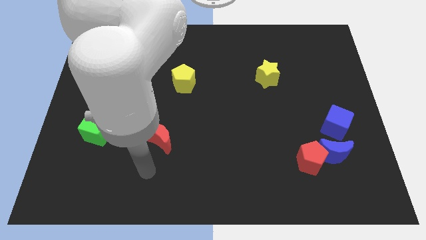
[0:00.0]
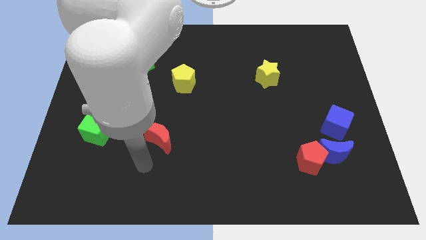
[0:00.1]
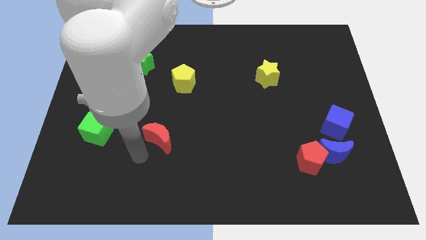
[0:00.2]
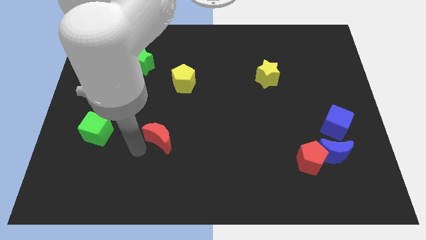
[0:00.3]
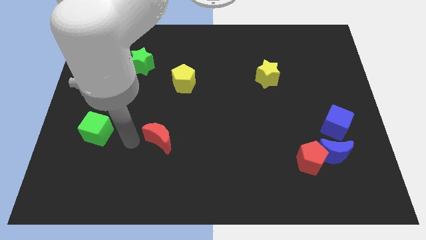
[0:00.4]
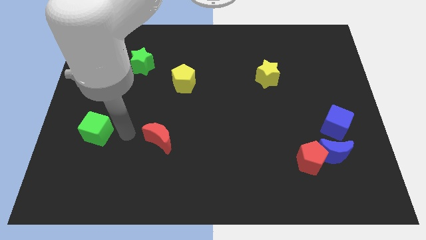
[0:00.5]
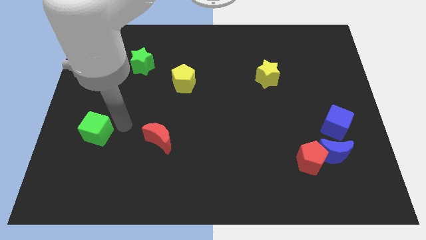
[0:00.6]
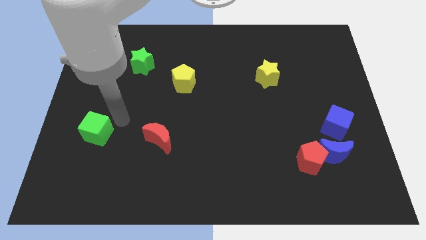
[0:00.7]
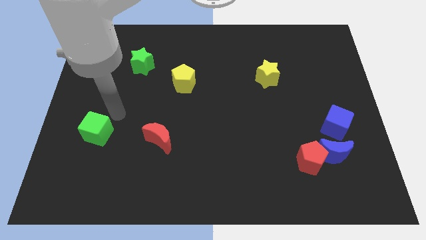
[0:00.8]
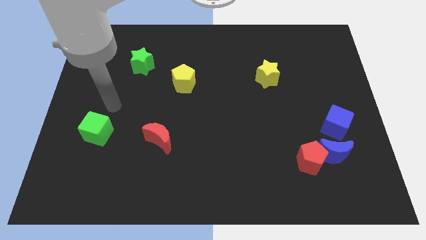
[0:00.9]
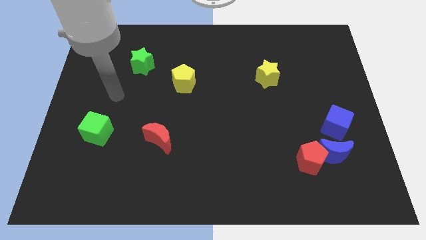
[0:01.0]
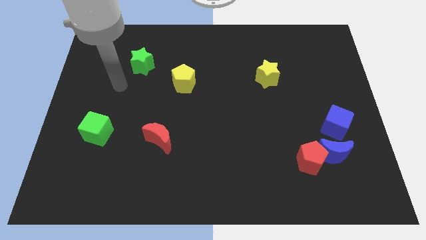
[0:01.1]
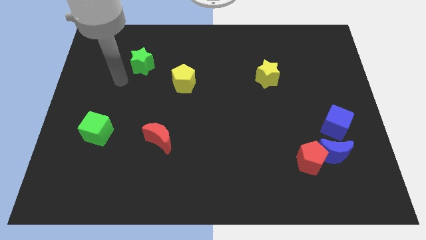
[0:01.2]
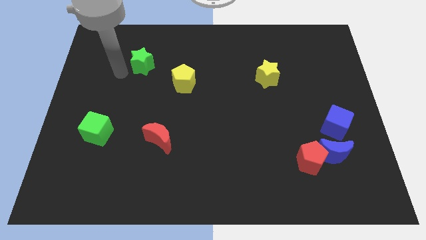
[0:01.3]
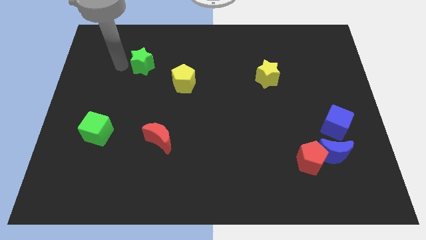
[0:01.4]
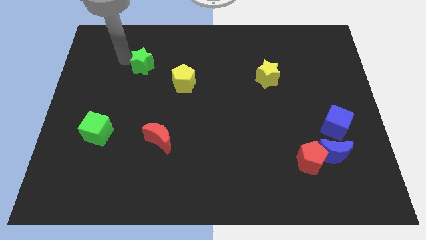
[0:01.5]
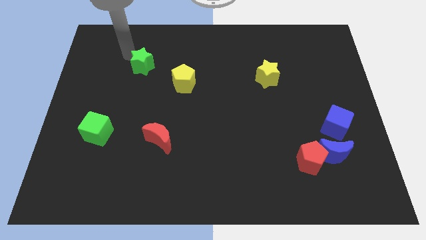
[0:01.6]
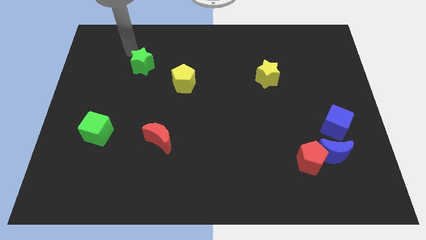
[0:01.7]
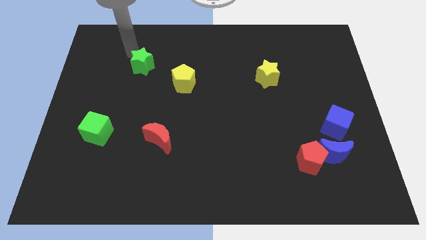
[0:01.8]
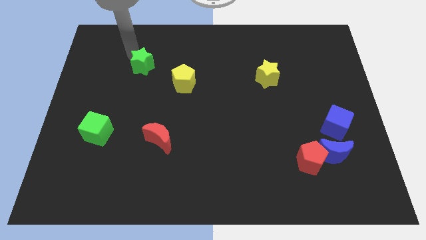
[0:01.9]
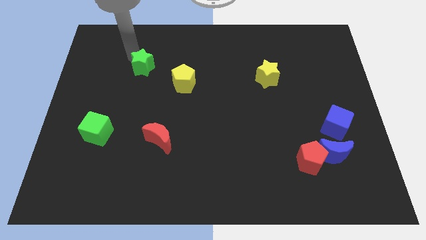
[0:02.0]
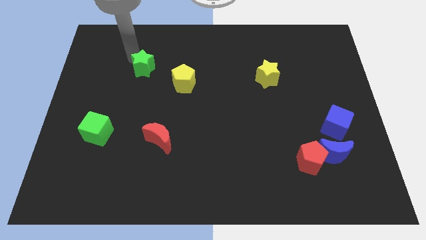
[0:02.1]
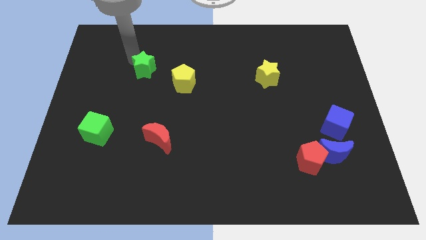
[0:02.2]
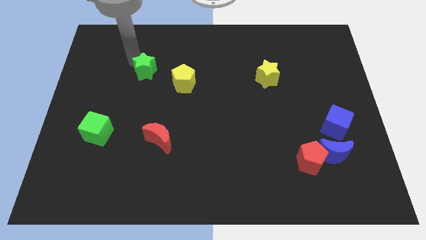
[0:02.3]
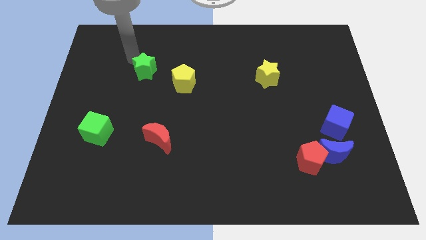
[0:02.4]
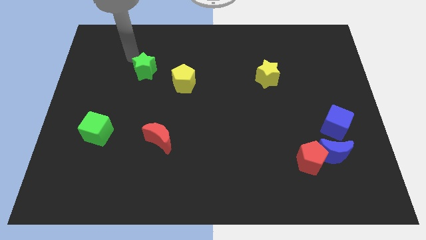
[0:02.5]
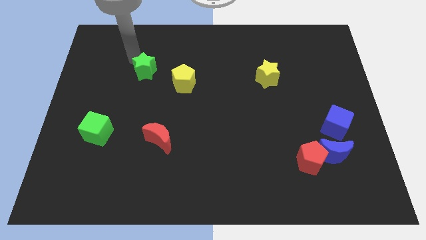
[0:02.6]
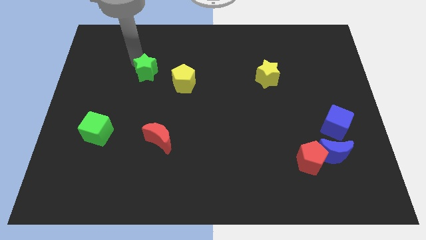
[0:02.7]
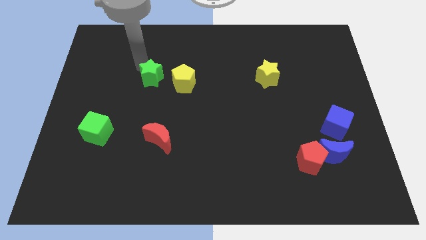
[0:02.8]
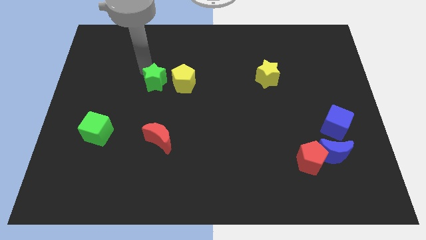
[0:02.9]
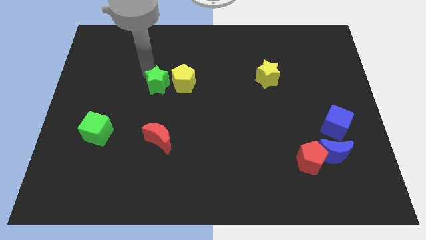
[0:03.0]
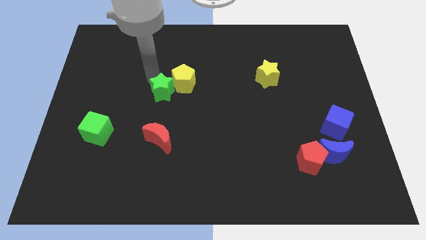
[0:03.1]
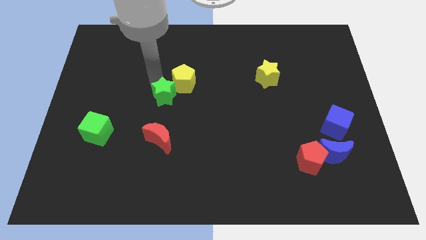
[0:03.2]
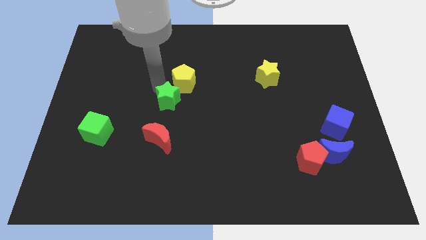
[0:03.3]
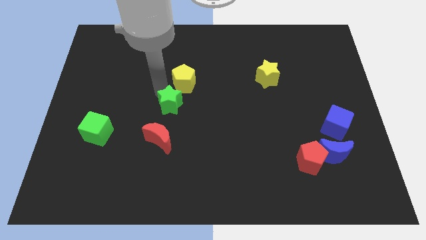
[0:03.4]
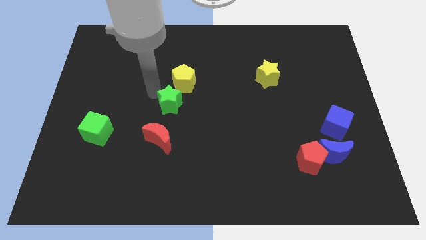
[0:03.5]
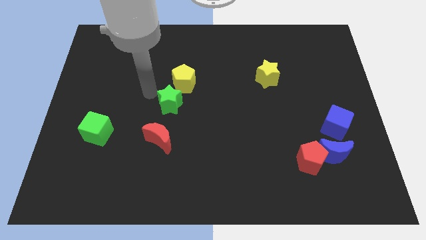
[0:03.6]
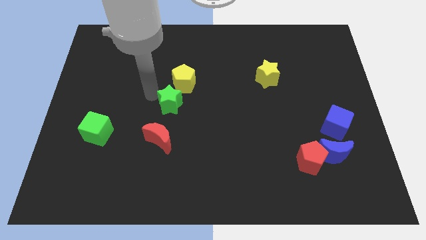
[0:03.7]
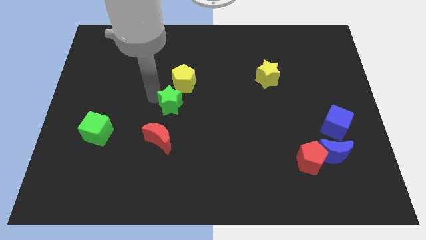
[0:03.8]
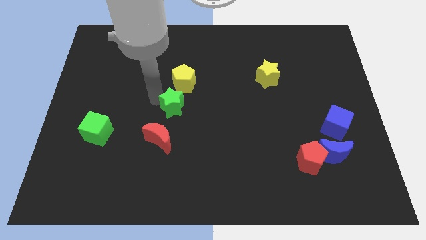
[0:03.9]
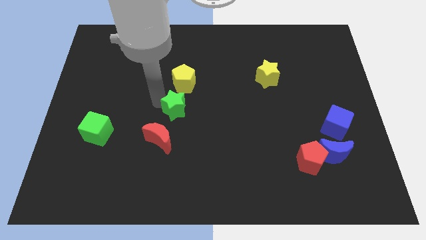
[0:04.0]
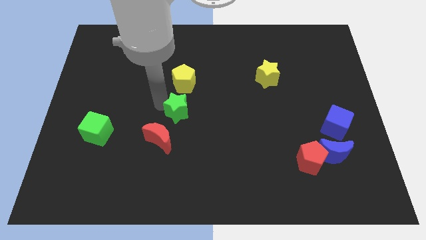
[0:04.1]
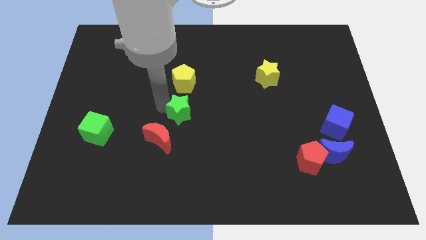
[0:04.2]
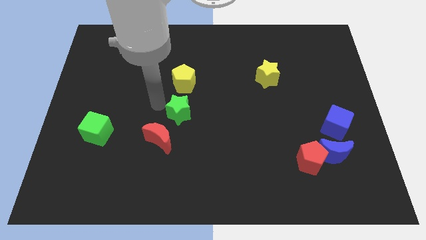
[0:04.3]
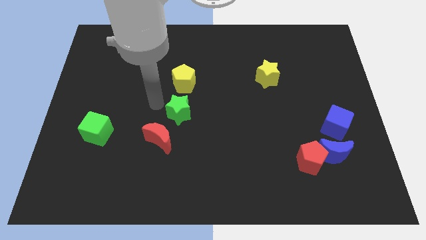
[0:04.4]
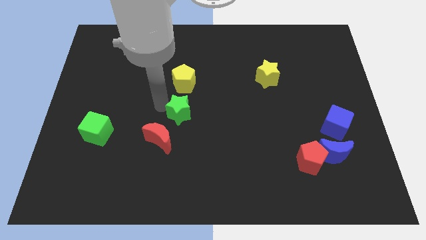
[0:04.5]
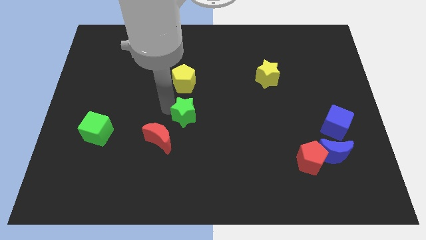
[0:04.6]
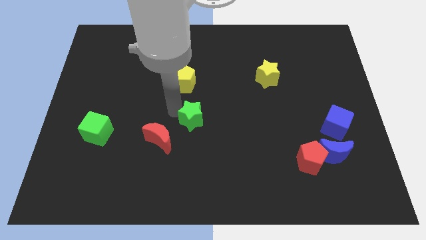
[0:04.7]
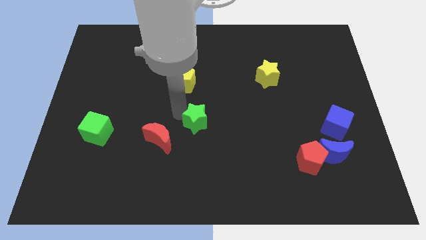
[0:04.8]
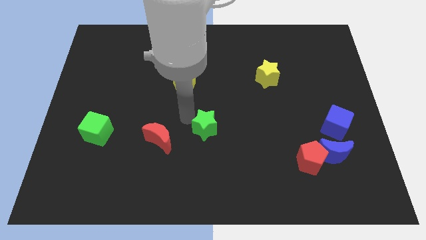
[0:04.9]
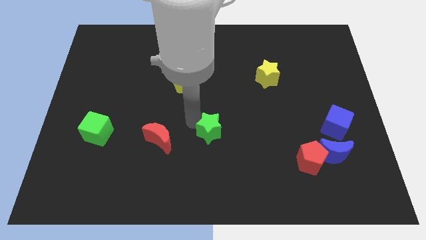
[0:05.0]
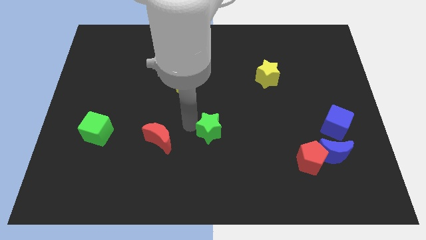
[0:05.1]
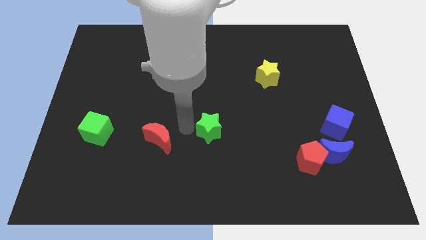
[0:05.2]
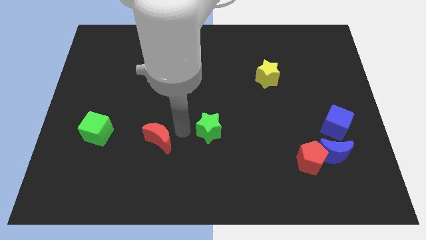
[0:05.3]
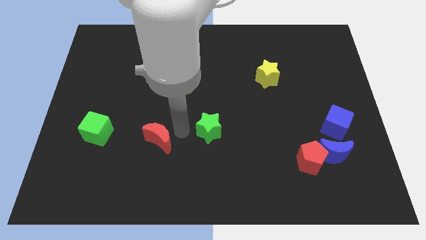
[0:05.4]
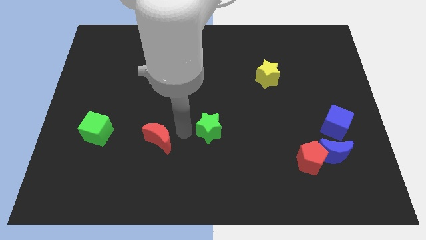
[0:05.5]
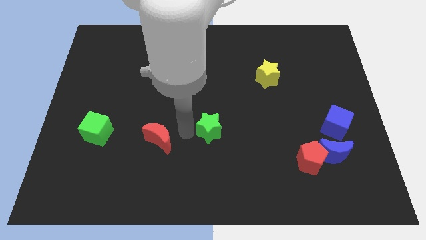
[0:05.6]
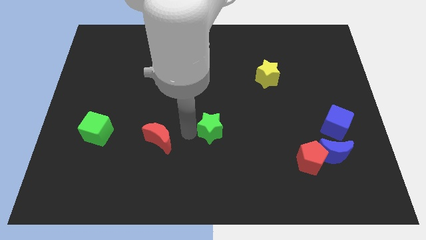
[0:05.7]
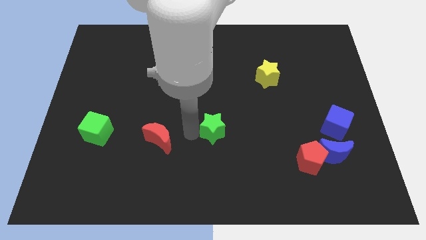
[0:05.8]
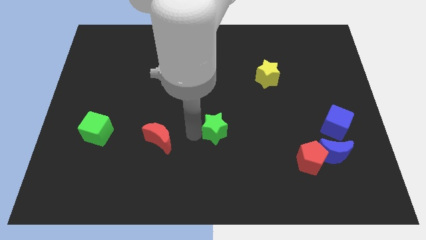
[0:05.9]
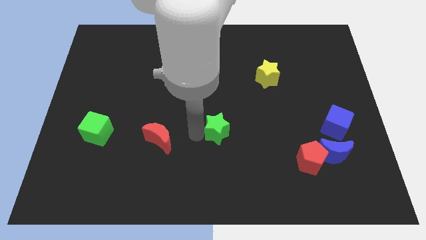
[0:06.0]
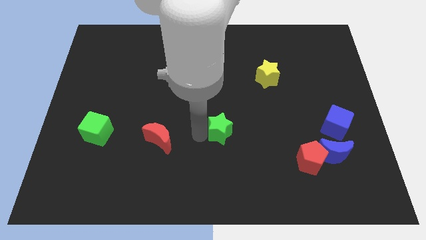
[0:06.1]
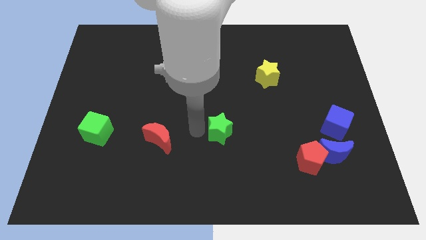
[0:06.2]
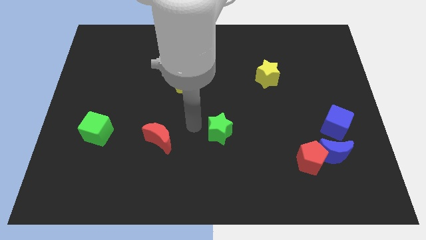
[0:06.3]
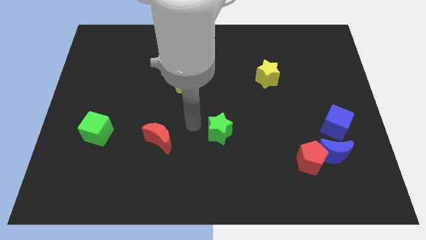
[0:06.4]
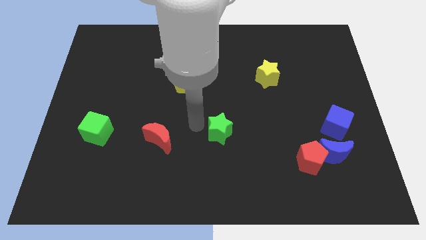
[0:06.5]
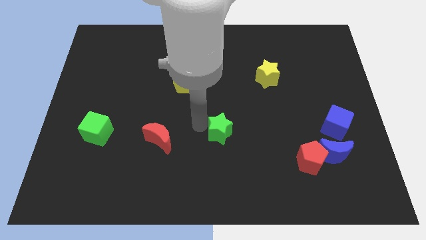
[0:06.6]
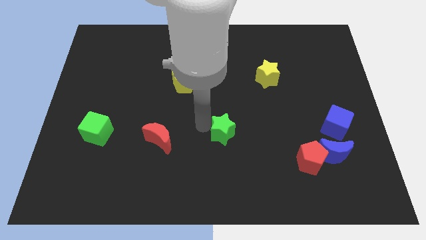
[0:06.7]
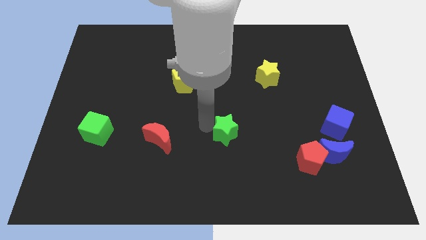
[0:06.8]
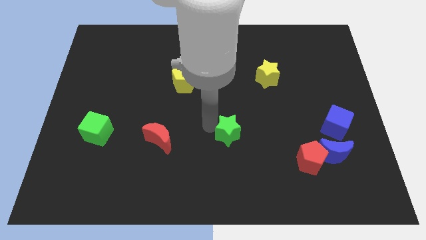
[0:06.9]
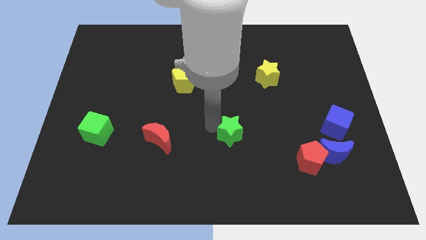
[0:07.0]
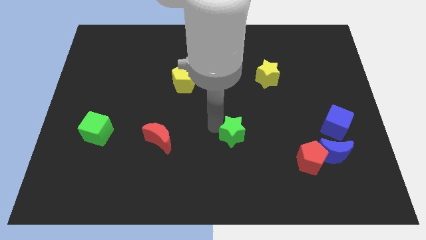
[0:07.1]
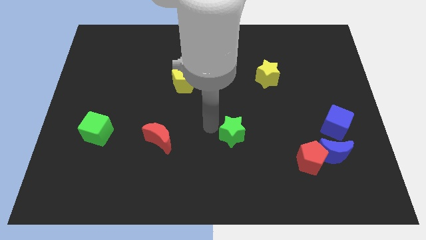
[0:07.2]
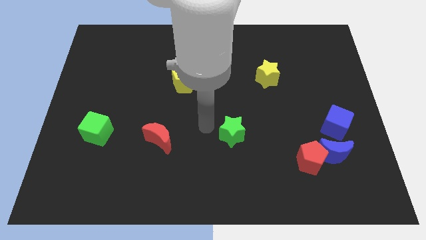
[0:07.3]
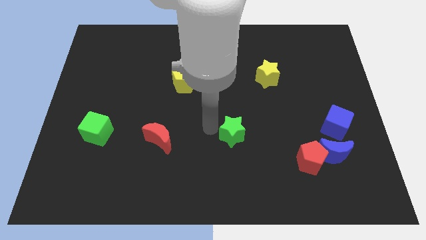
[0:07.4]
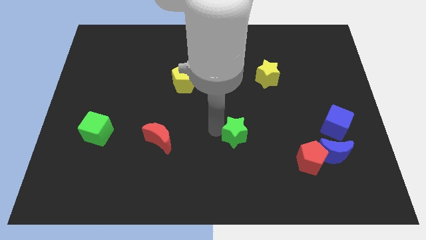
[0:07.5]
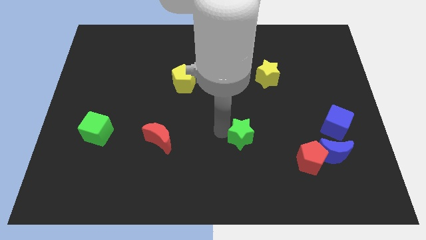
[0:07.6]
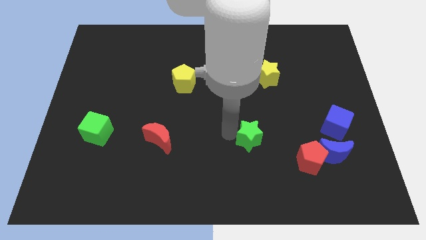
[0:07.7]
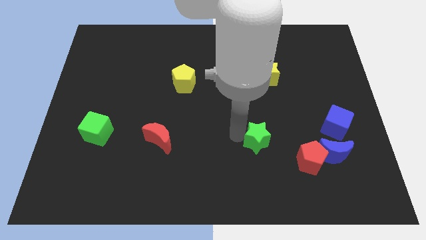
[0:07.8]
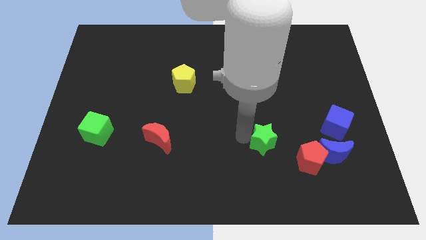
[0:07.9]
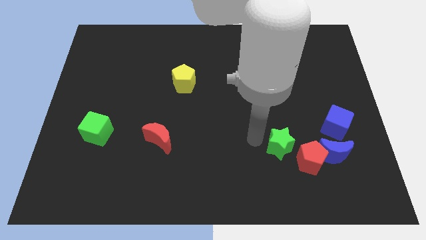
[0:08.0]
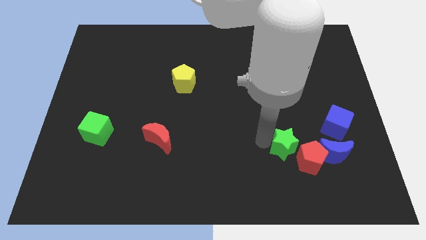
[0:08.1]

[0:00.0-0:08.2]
move the green star towards the red pentagon

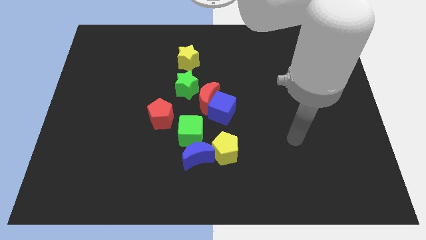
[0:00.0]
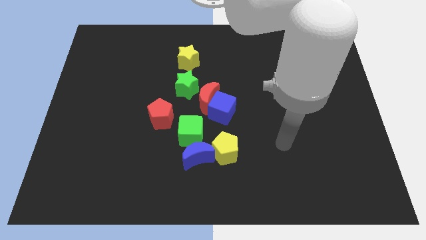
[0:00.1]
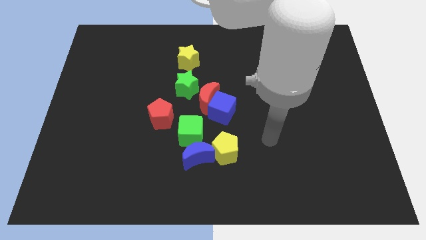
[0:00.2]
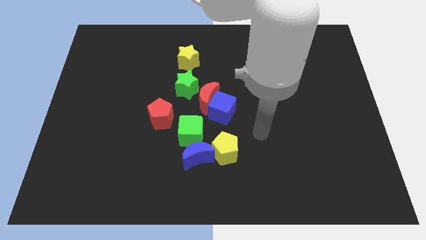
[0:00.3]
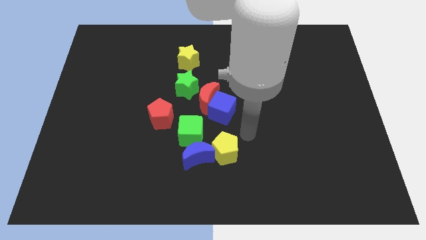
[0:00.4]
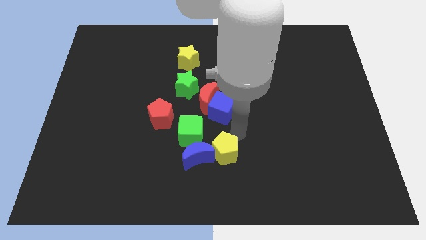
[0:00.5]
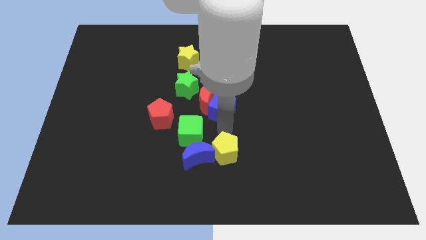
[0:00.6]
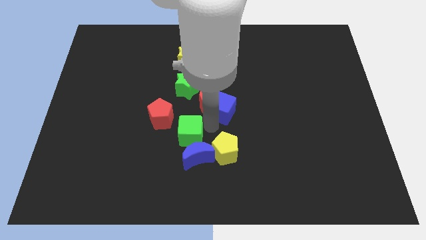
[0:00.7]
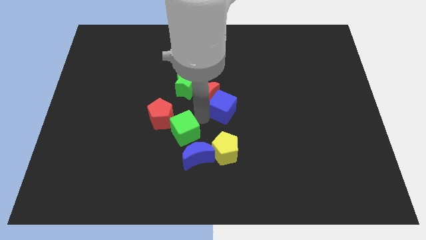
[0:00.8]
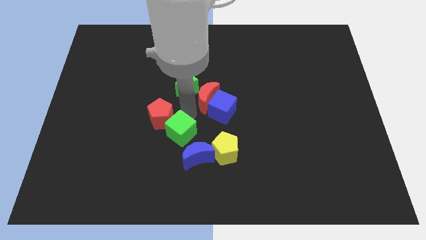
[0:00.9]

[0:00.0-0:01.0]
slide the red pentagon next to the green cube
